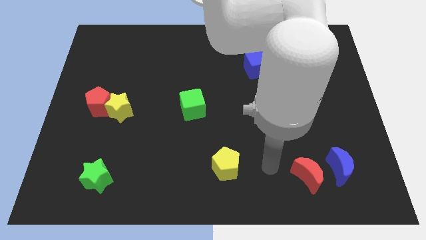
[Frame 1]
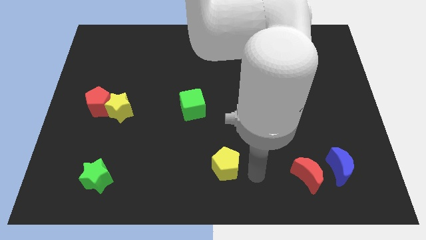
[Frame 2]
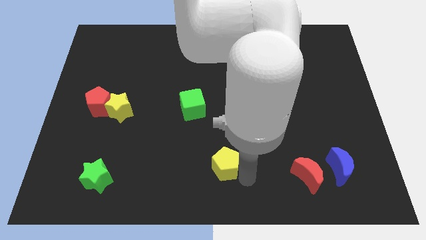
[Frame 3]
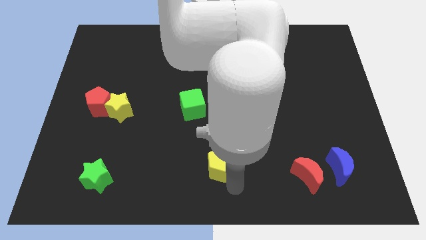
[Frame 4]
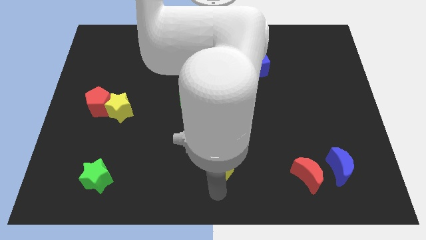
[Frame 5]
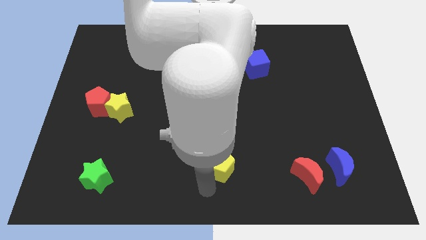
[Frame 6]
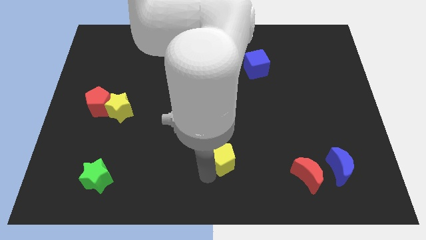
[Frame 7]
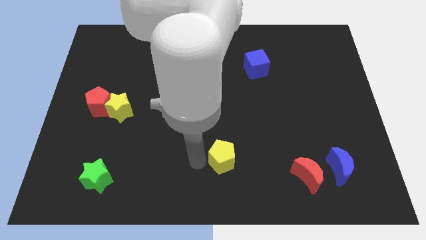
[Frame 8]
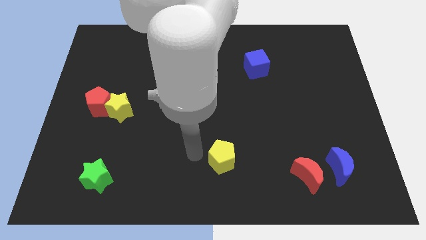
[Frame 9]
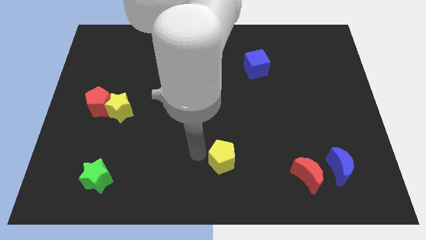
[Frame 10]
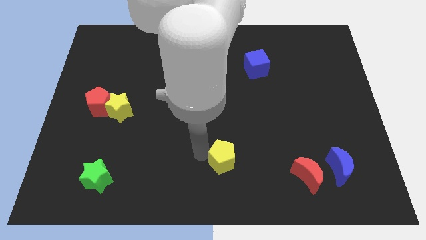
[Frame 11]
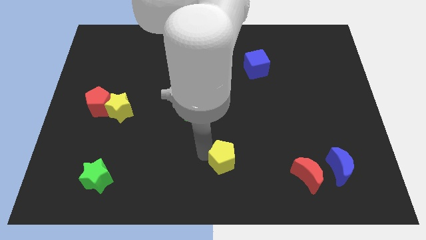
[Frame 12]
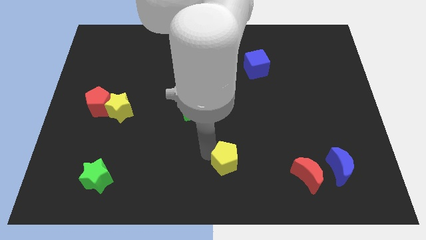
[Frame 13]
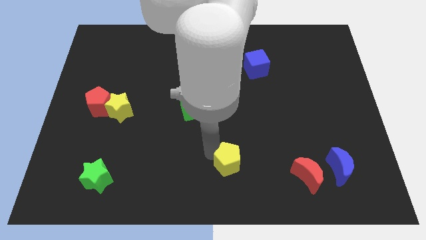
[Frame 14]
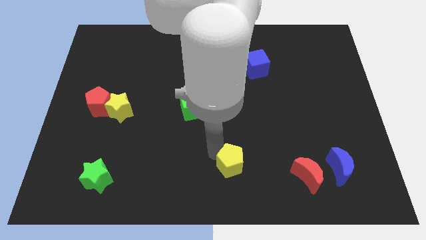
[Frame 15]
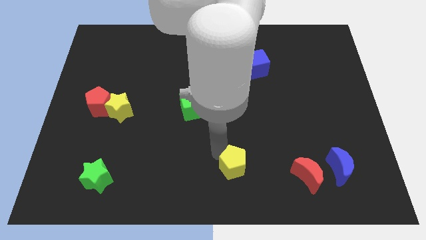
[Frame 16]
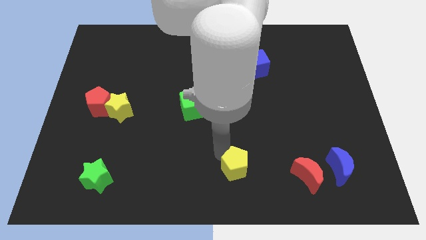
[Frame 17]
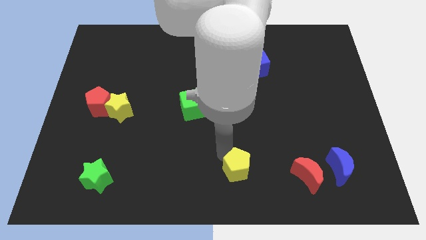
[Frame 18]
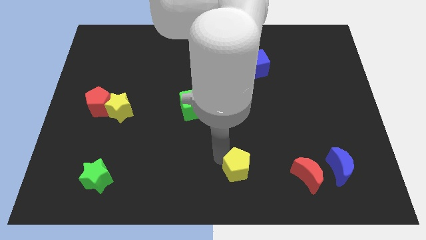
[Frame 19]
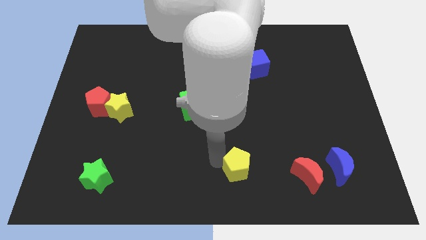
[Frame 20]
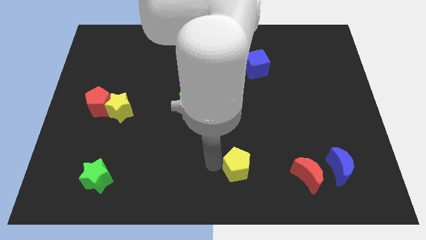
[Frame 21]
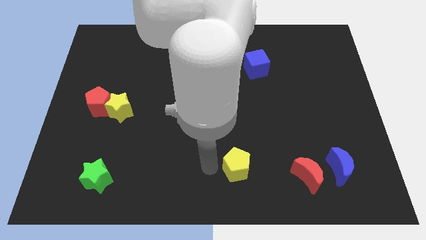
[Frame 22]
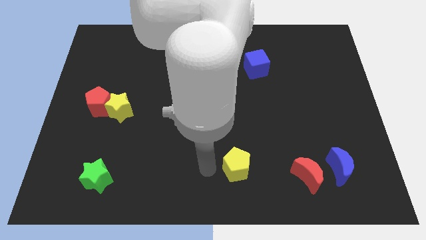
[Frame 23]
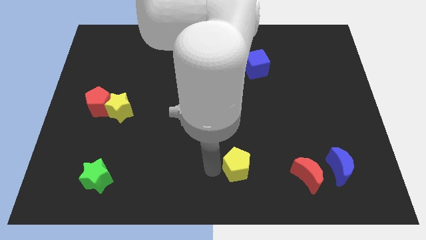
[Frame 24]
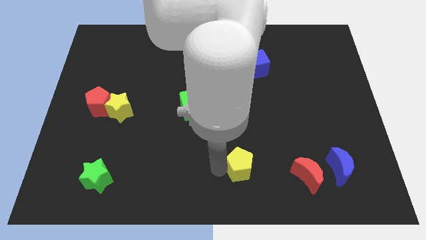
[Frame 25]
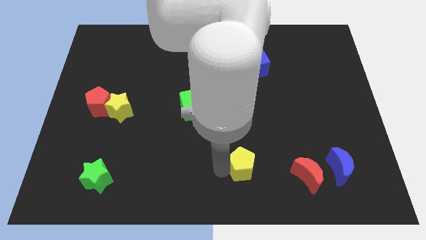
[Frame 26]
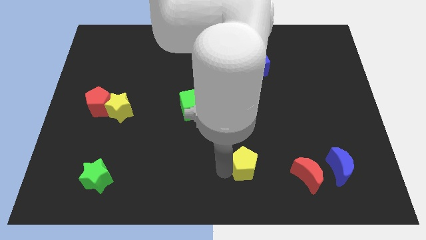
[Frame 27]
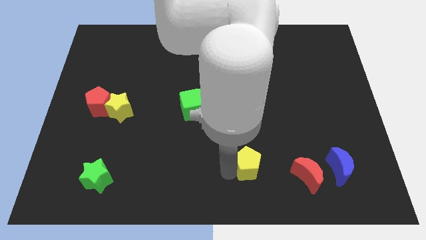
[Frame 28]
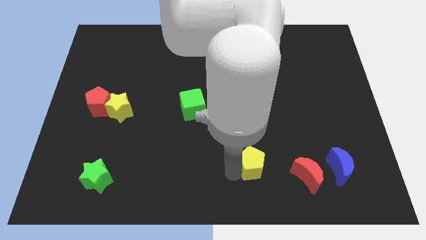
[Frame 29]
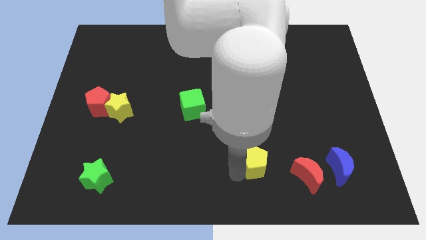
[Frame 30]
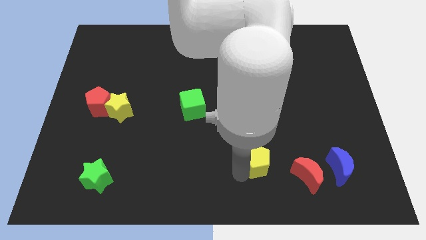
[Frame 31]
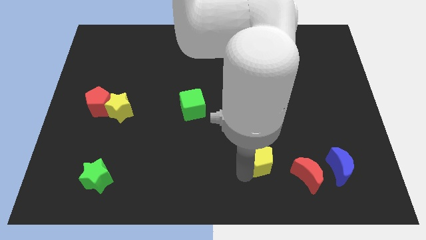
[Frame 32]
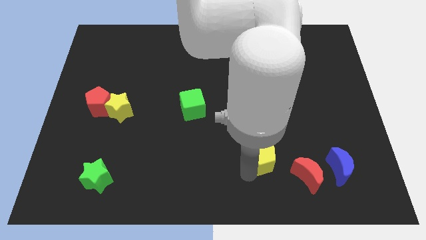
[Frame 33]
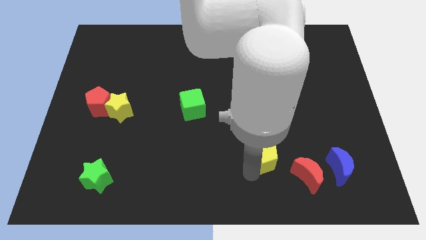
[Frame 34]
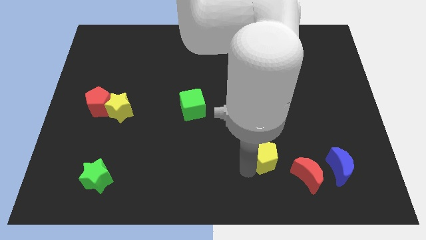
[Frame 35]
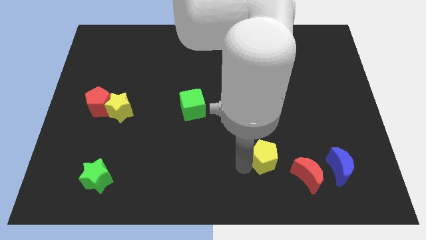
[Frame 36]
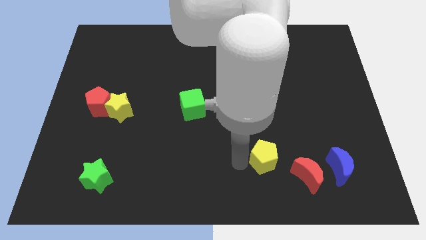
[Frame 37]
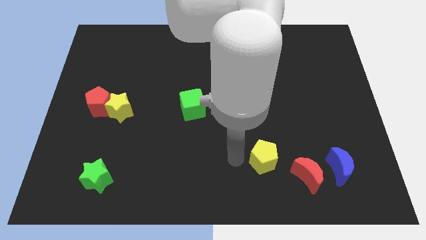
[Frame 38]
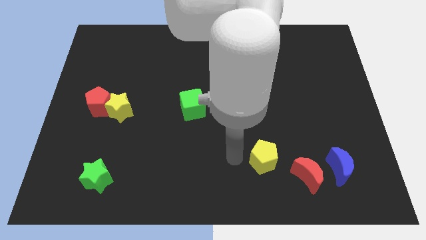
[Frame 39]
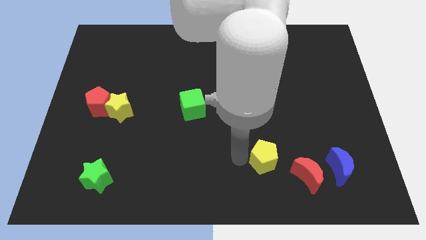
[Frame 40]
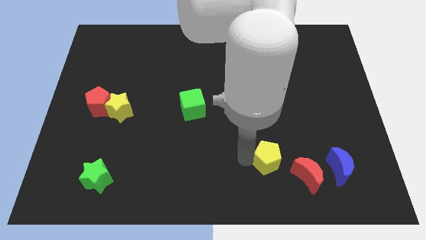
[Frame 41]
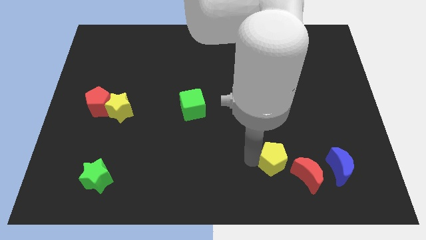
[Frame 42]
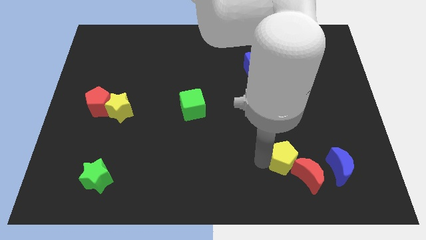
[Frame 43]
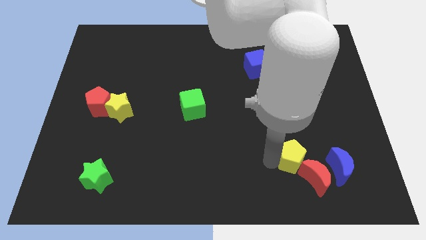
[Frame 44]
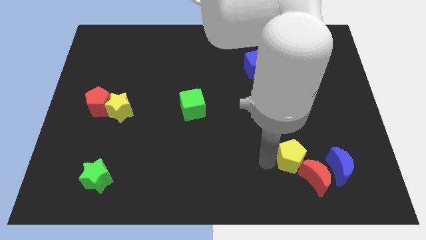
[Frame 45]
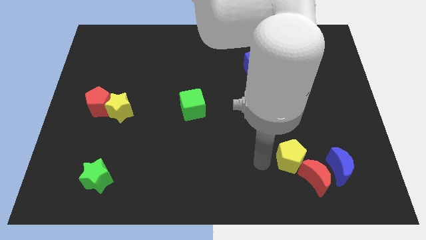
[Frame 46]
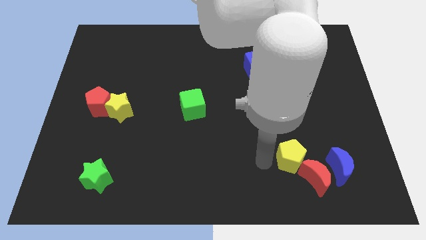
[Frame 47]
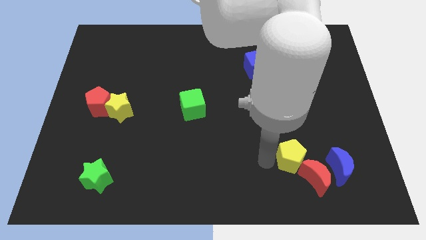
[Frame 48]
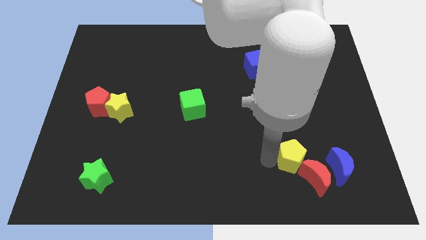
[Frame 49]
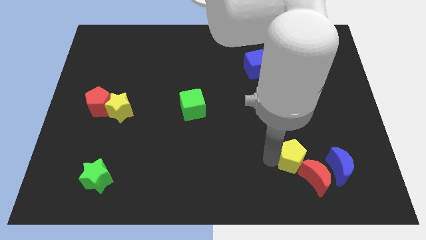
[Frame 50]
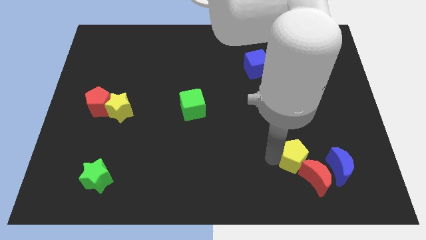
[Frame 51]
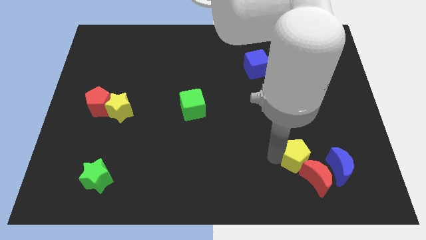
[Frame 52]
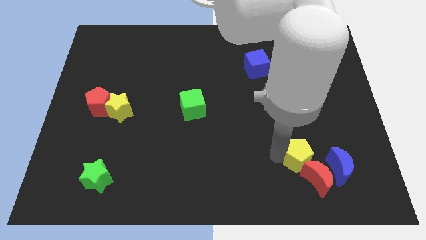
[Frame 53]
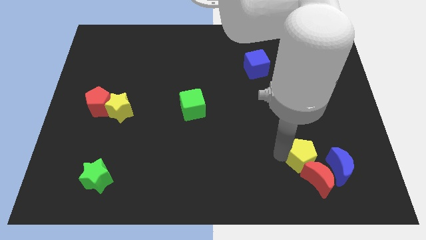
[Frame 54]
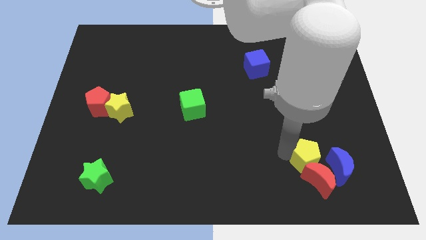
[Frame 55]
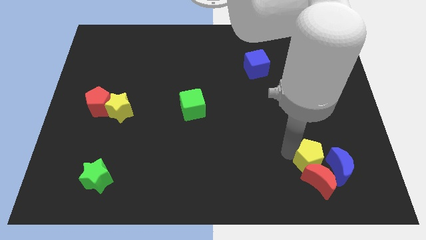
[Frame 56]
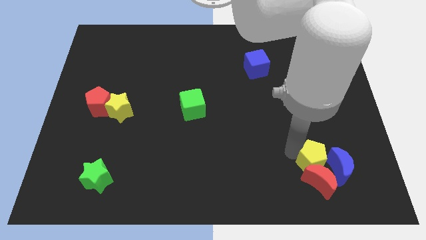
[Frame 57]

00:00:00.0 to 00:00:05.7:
slide the yellow pentagon towards the blue moon

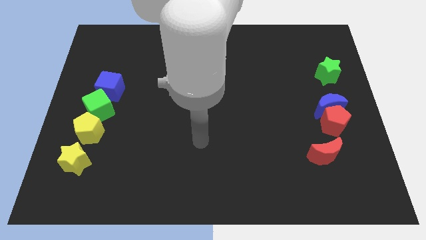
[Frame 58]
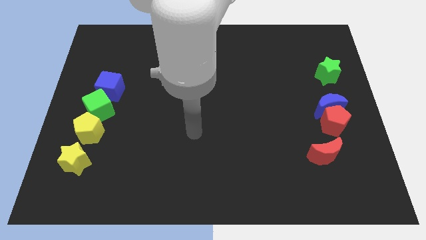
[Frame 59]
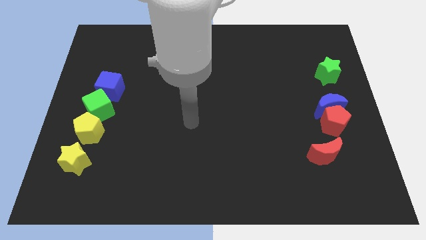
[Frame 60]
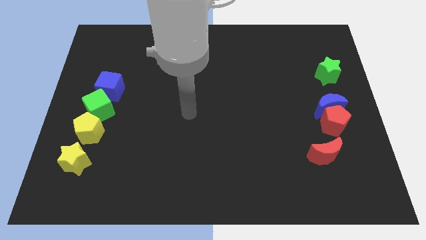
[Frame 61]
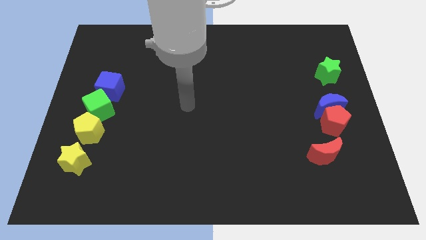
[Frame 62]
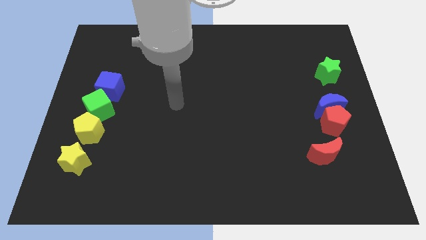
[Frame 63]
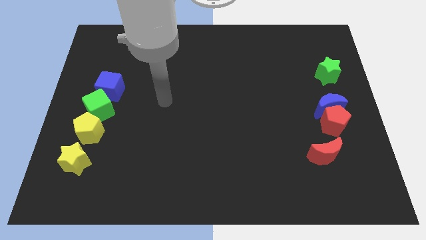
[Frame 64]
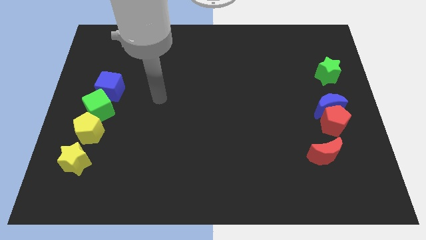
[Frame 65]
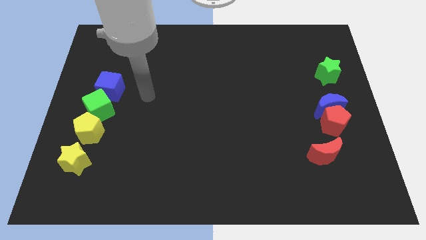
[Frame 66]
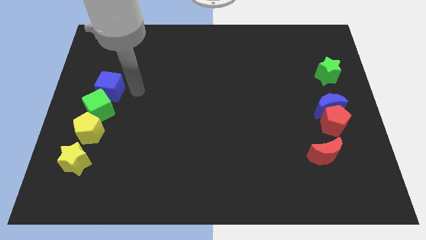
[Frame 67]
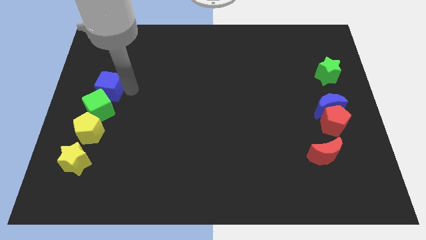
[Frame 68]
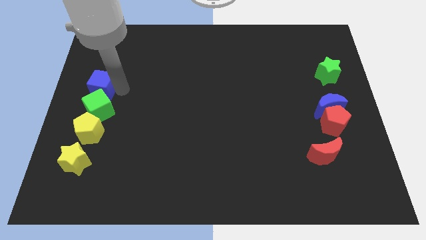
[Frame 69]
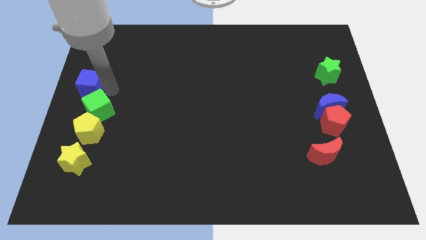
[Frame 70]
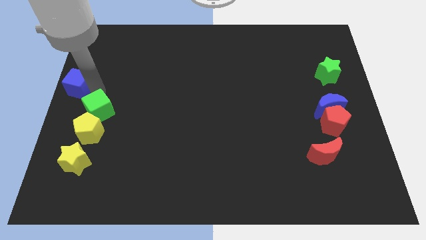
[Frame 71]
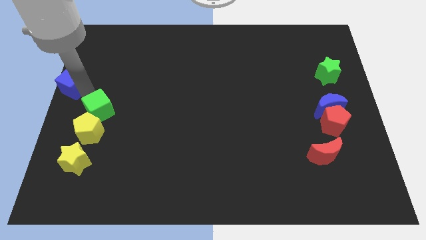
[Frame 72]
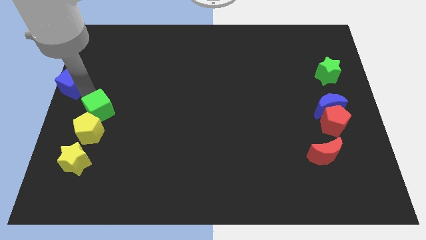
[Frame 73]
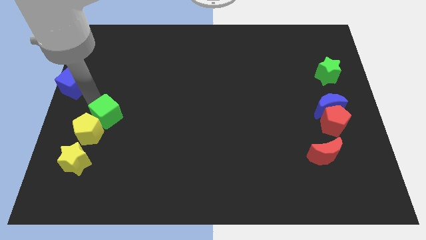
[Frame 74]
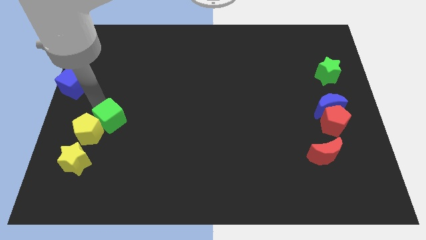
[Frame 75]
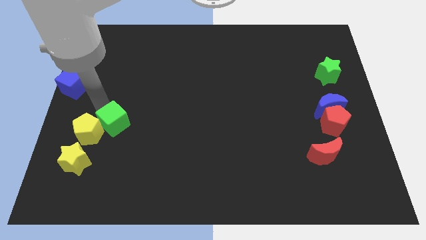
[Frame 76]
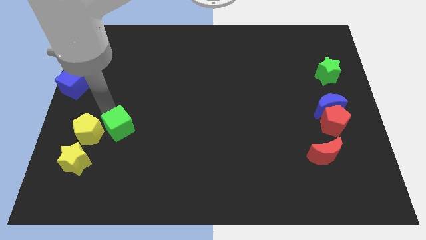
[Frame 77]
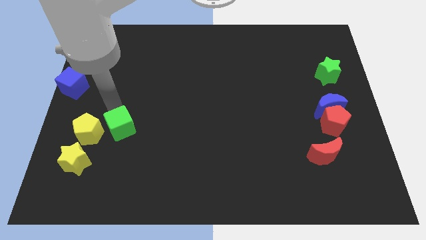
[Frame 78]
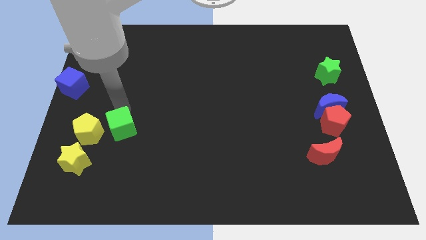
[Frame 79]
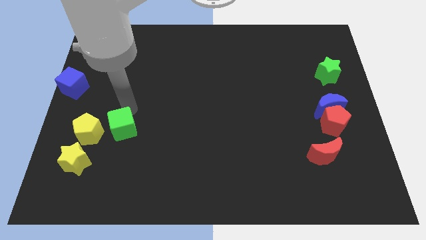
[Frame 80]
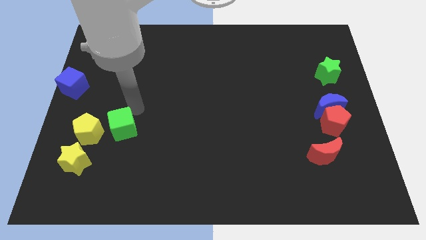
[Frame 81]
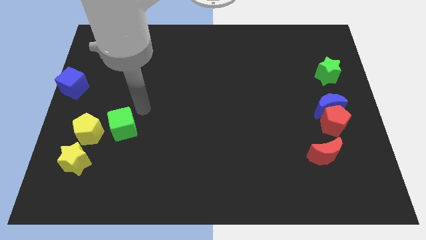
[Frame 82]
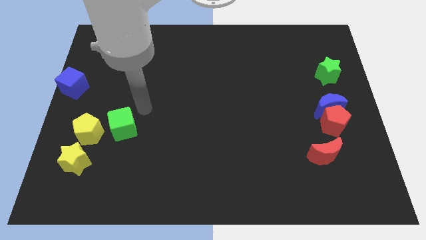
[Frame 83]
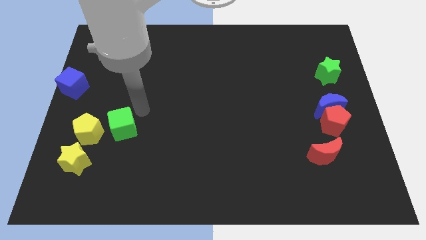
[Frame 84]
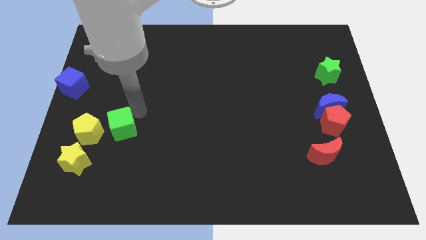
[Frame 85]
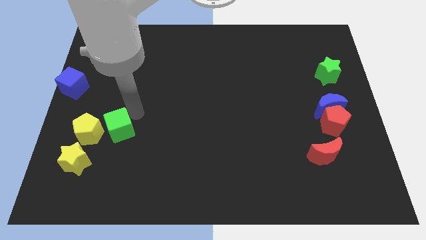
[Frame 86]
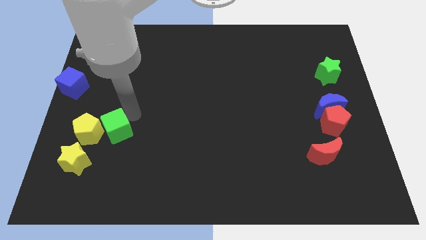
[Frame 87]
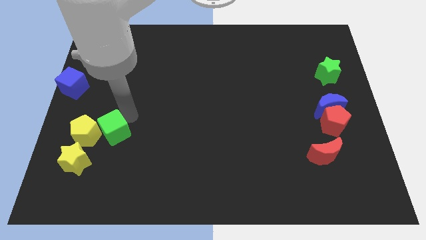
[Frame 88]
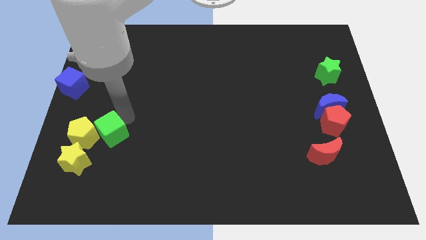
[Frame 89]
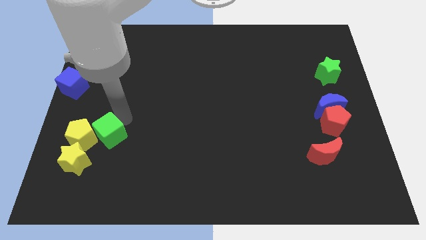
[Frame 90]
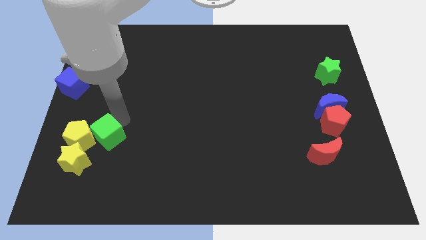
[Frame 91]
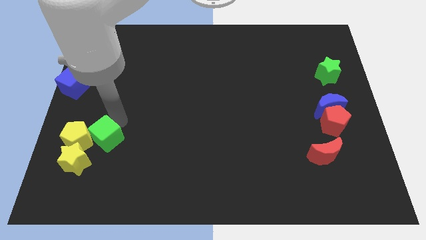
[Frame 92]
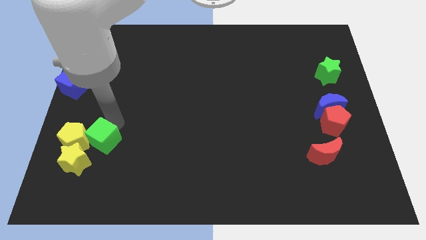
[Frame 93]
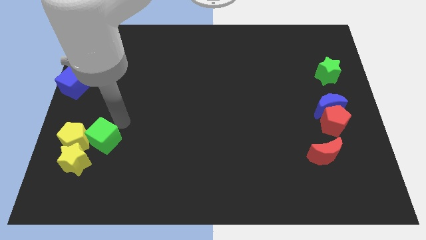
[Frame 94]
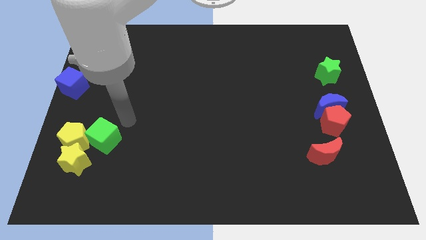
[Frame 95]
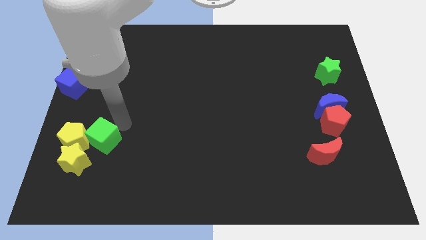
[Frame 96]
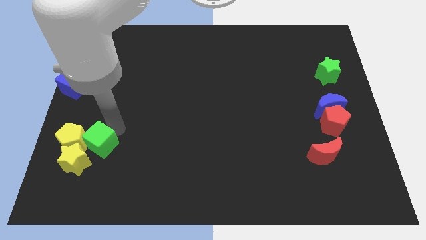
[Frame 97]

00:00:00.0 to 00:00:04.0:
move the green cube close to the yellow star
